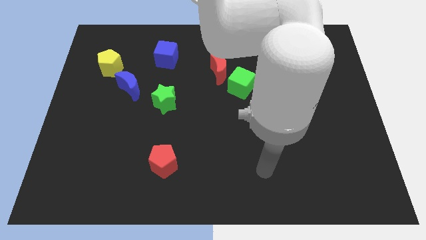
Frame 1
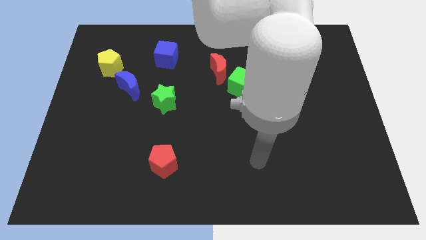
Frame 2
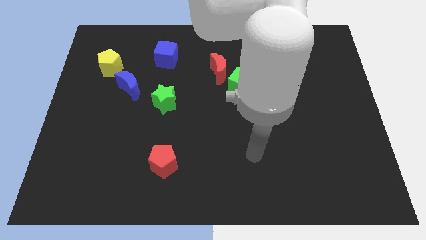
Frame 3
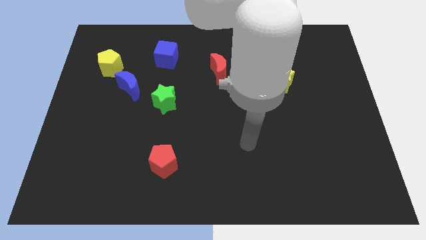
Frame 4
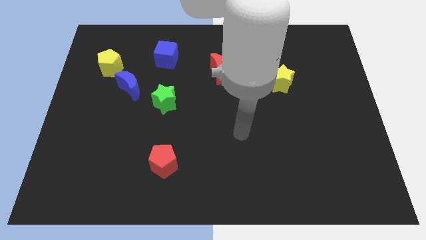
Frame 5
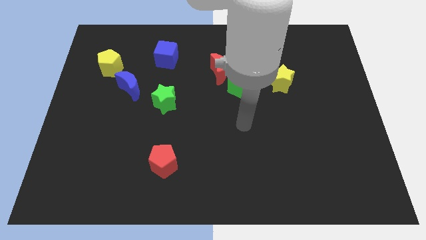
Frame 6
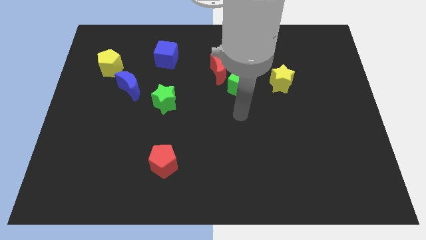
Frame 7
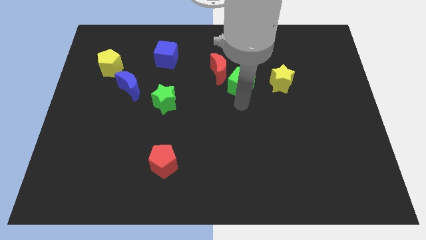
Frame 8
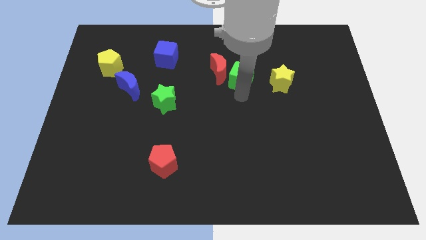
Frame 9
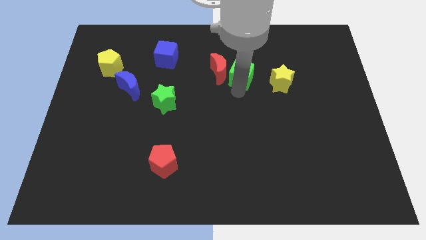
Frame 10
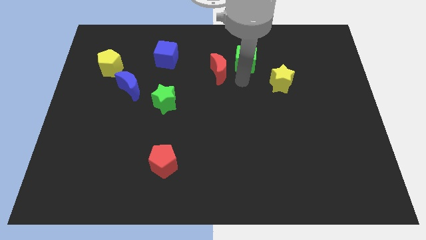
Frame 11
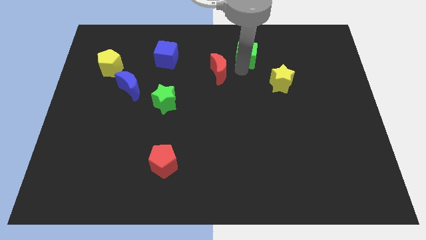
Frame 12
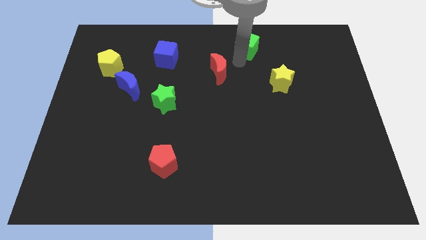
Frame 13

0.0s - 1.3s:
move the red moon away from the green cube

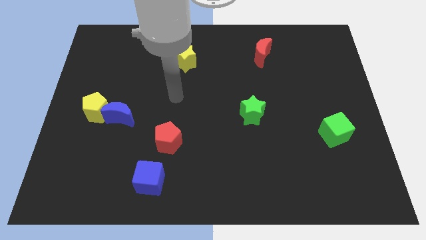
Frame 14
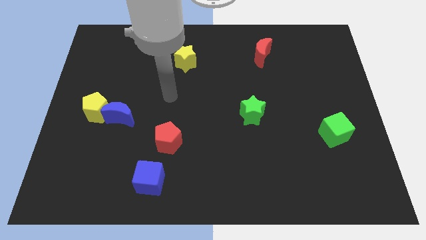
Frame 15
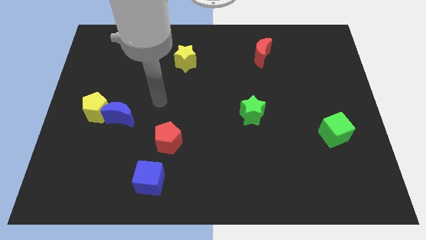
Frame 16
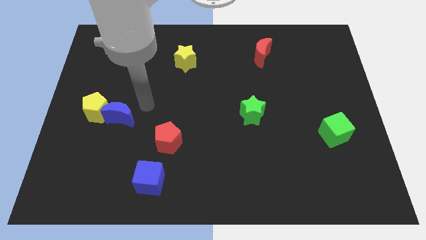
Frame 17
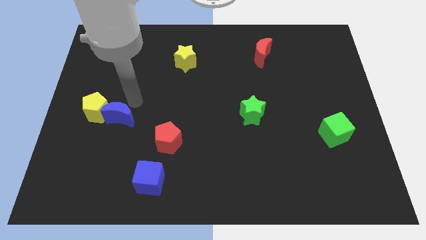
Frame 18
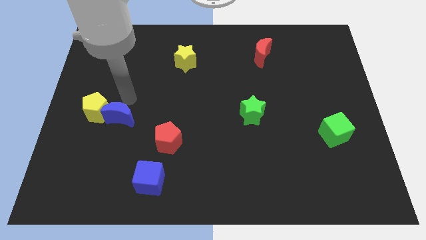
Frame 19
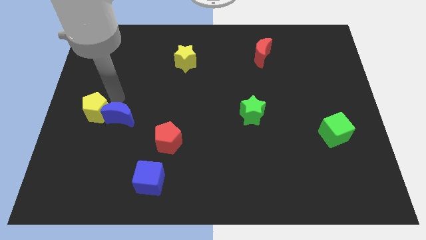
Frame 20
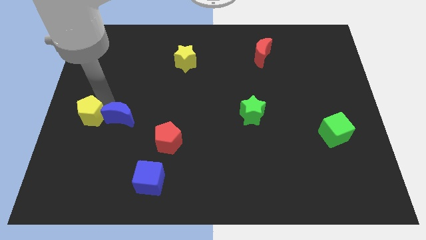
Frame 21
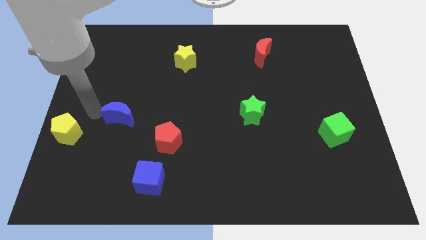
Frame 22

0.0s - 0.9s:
move the blue moon away from the yellow pentagon

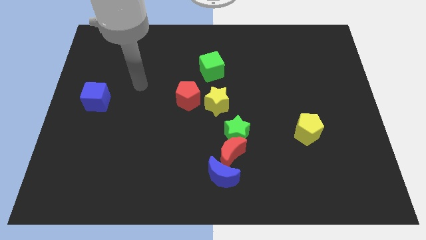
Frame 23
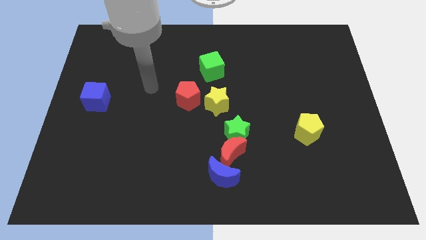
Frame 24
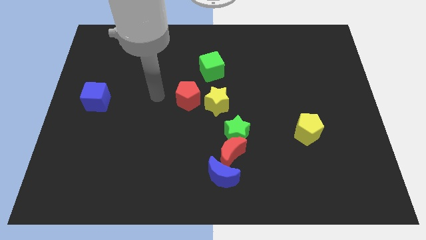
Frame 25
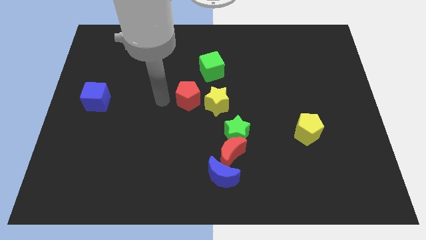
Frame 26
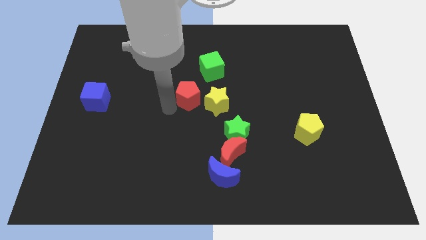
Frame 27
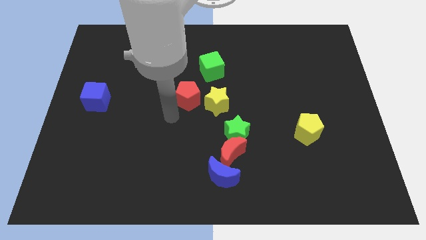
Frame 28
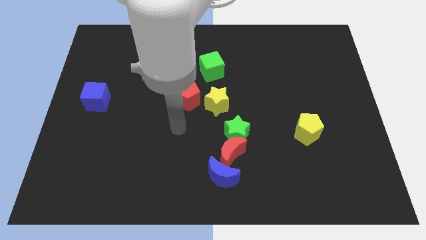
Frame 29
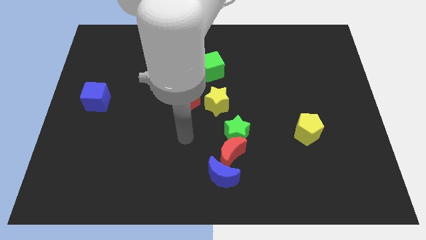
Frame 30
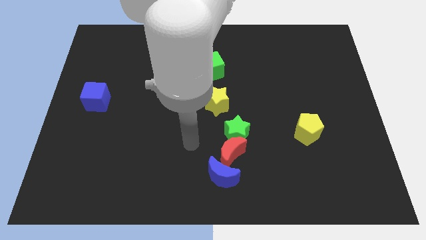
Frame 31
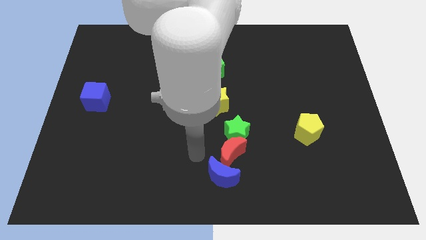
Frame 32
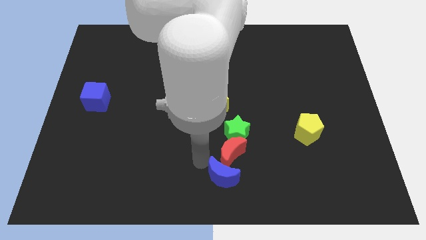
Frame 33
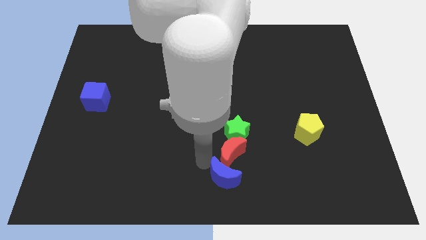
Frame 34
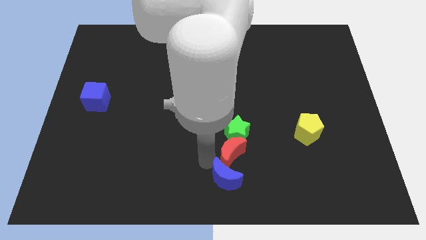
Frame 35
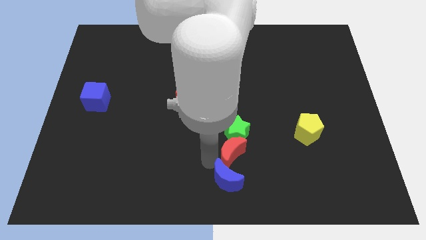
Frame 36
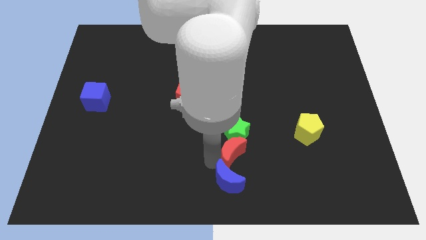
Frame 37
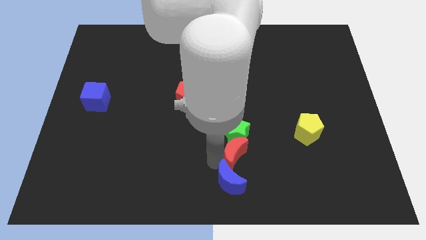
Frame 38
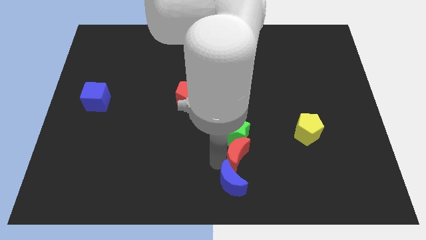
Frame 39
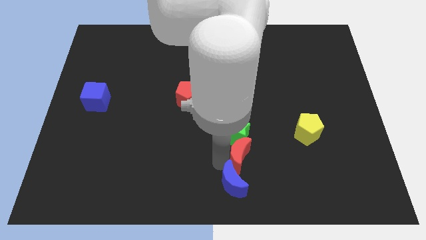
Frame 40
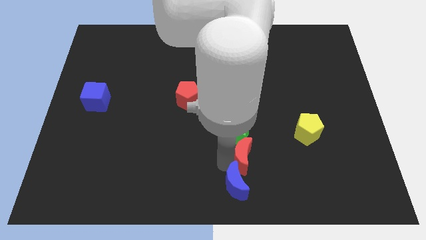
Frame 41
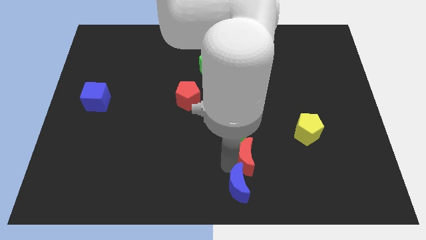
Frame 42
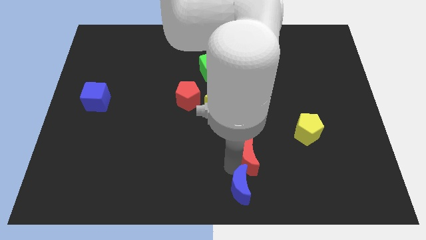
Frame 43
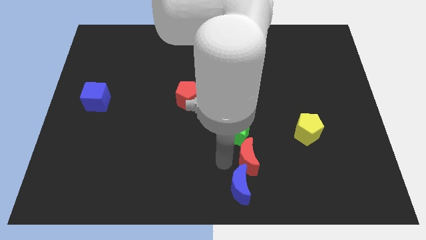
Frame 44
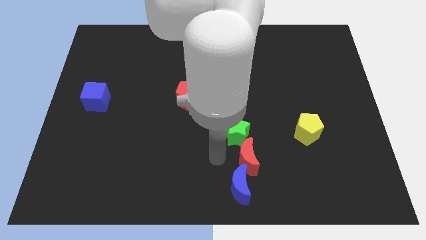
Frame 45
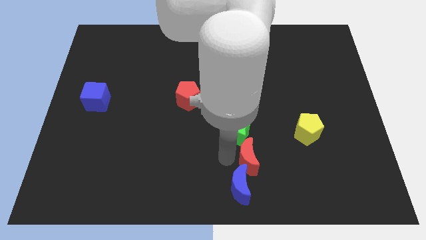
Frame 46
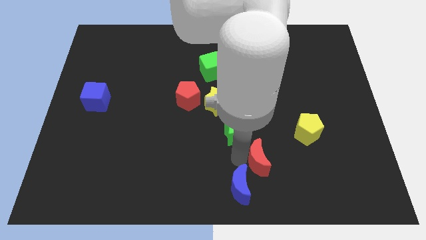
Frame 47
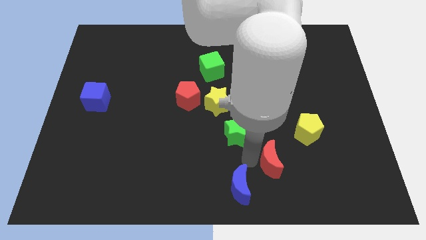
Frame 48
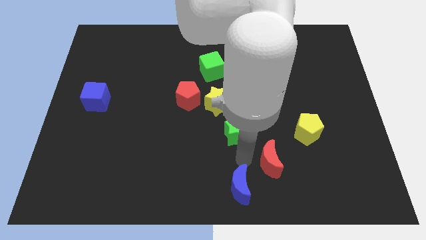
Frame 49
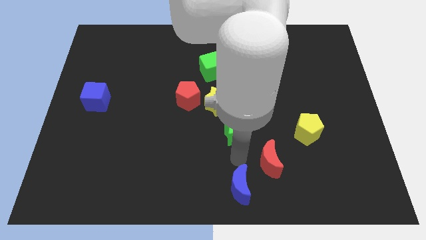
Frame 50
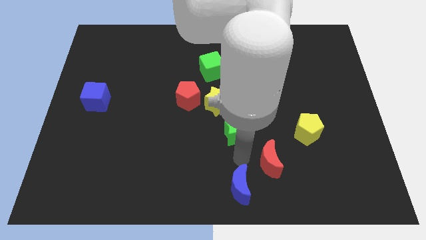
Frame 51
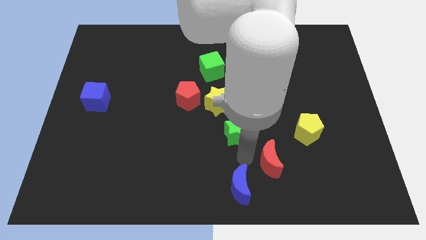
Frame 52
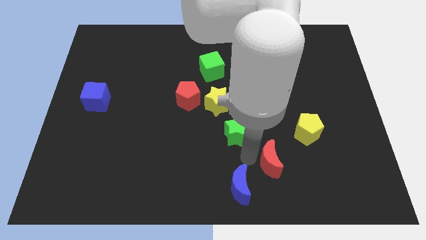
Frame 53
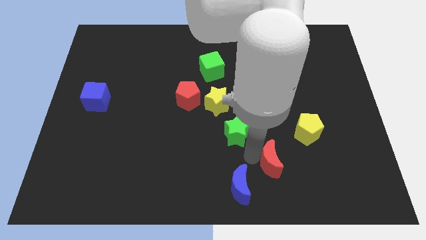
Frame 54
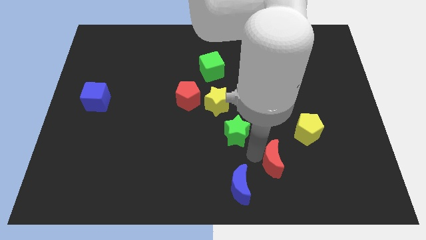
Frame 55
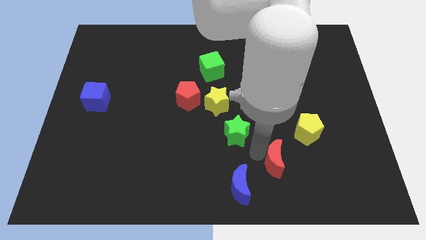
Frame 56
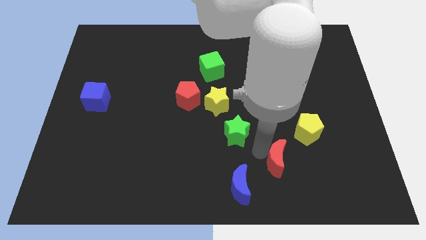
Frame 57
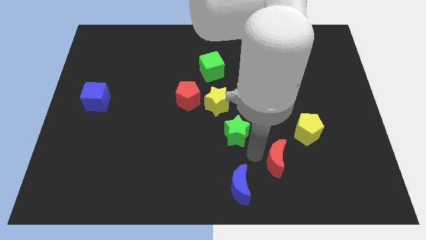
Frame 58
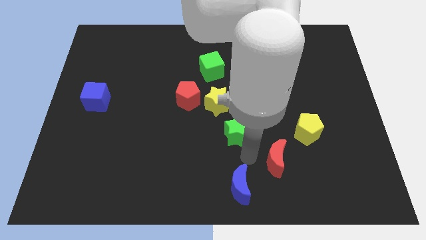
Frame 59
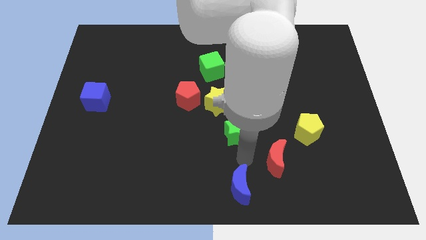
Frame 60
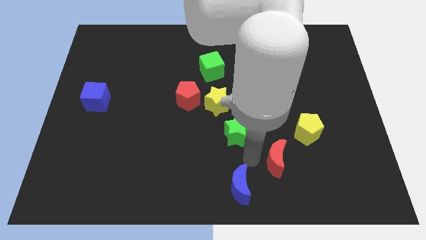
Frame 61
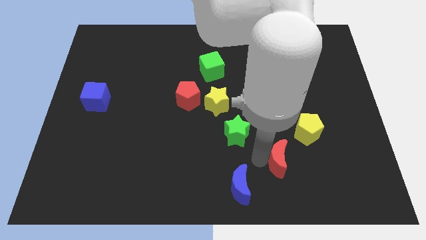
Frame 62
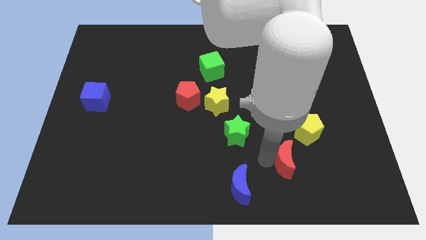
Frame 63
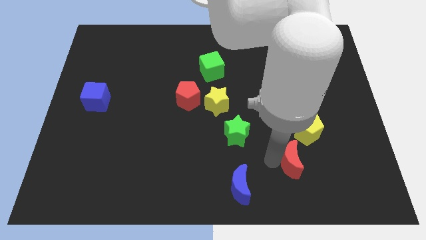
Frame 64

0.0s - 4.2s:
pull the red moon apart from the green star and blue moon

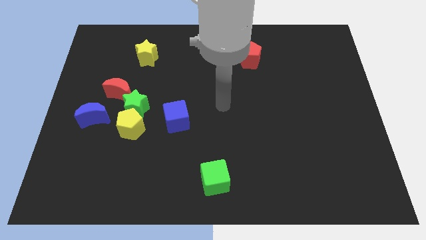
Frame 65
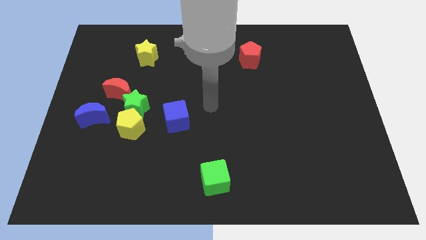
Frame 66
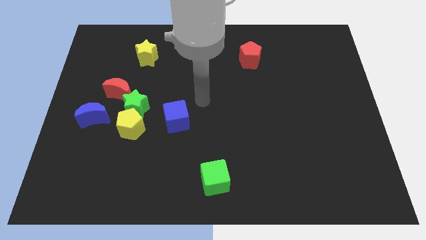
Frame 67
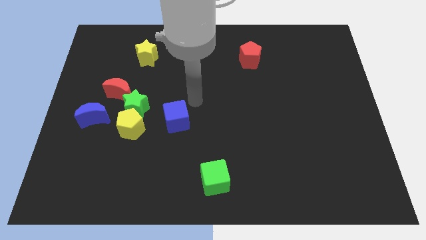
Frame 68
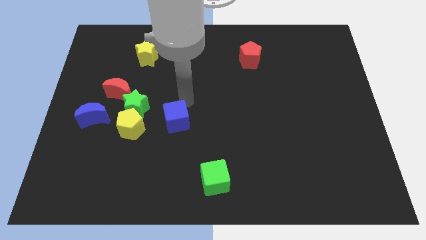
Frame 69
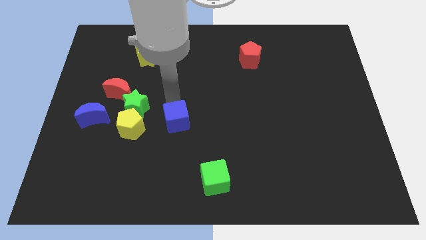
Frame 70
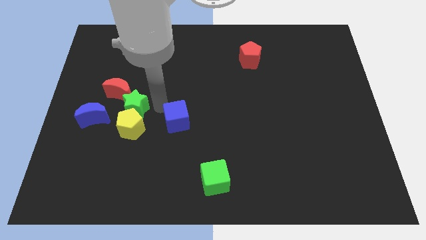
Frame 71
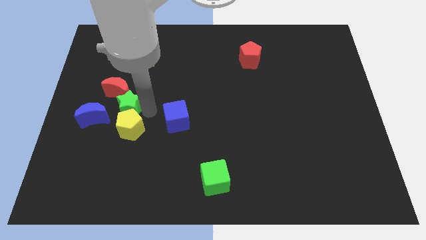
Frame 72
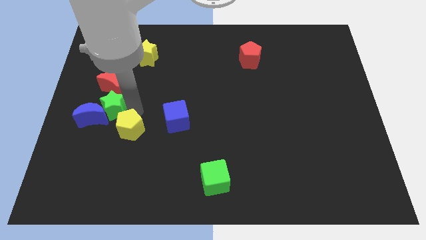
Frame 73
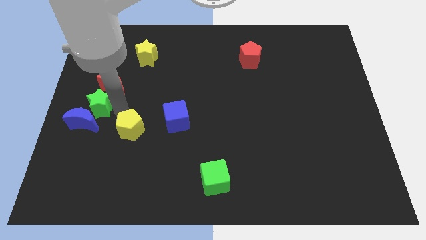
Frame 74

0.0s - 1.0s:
move the yellow pentagon away from the green star and blue moon

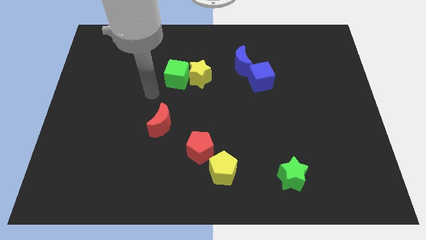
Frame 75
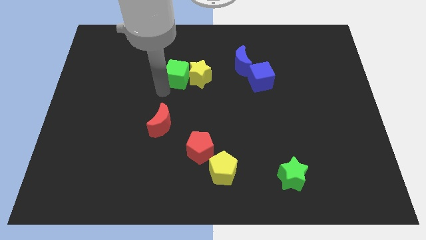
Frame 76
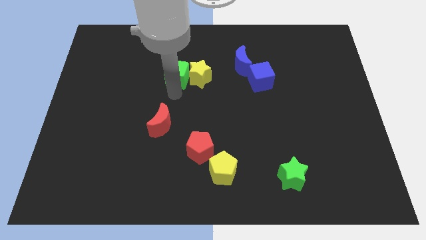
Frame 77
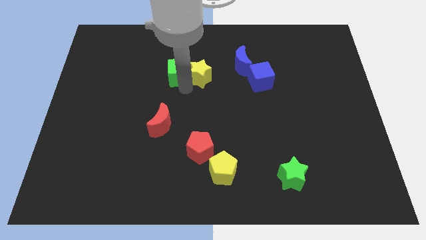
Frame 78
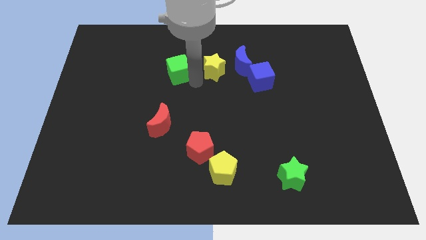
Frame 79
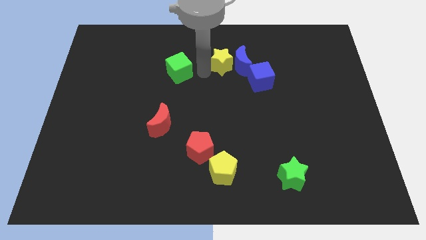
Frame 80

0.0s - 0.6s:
pull the green cube apart from the yellow star

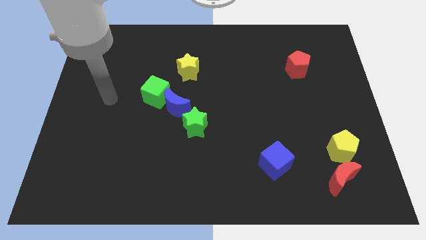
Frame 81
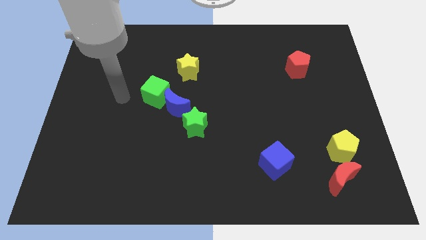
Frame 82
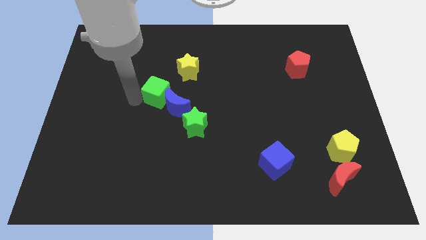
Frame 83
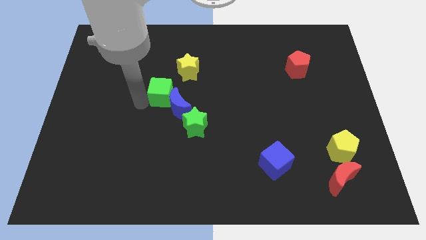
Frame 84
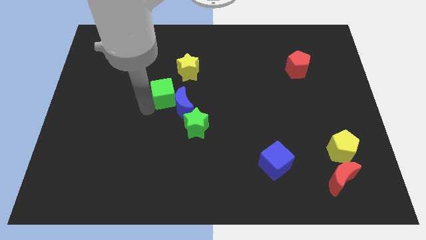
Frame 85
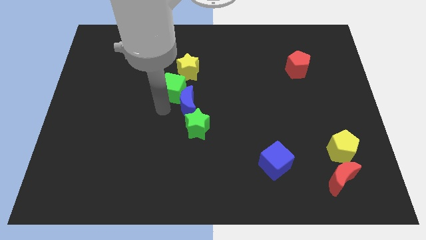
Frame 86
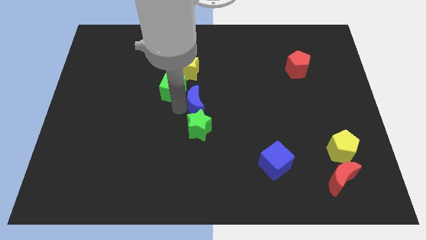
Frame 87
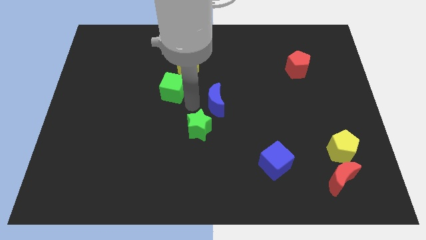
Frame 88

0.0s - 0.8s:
move the green cube away from the blue moon

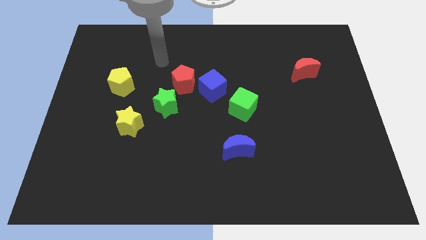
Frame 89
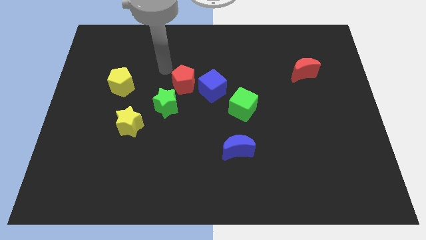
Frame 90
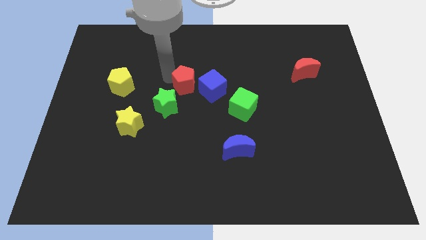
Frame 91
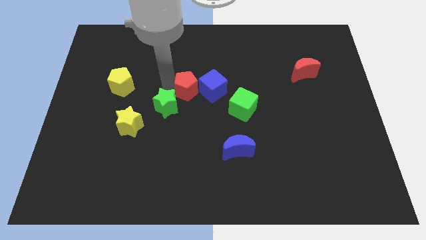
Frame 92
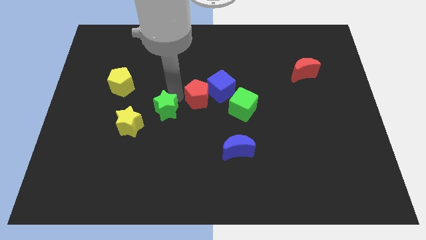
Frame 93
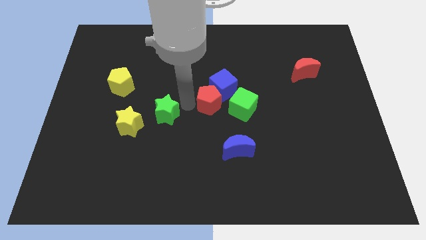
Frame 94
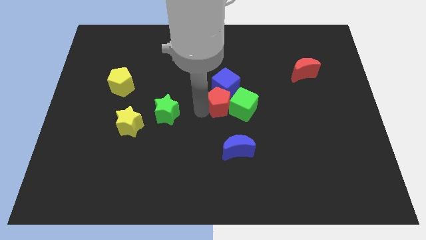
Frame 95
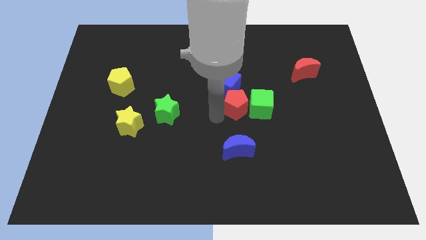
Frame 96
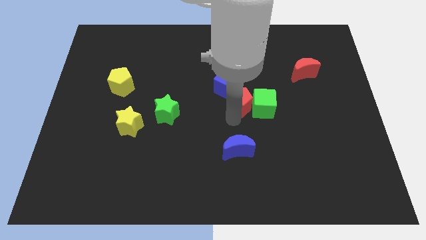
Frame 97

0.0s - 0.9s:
move the red pentagon away from the blue cube and green star
